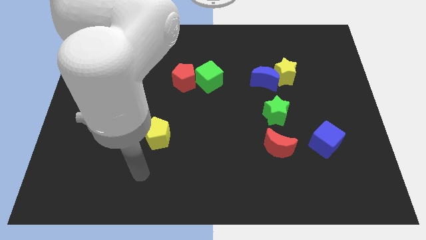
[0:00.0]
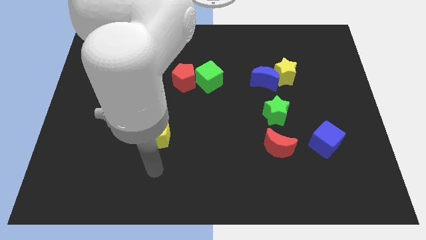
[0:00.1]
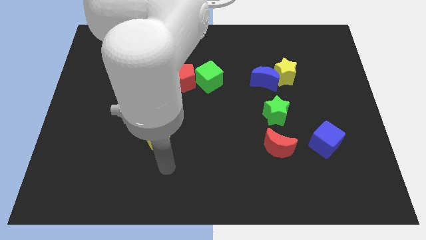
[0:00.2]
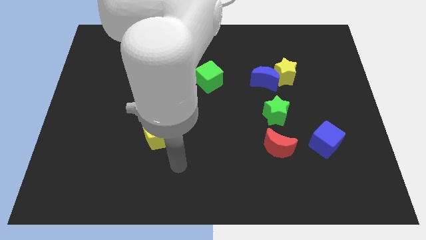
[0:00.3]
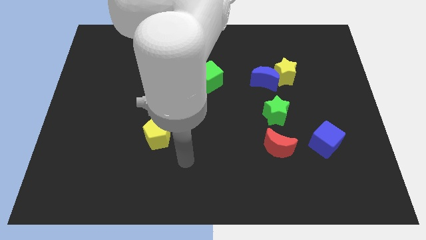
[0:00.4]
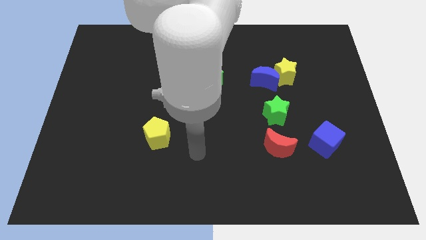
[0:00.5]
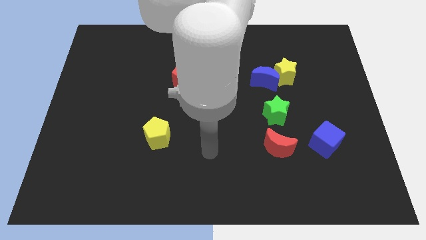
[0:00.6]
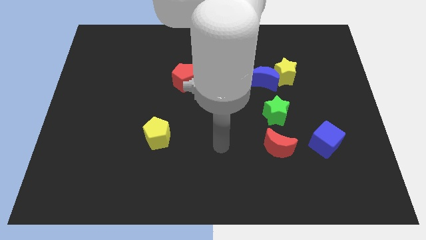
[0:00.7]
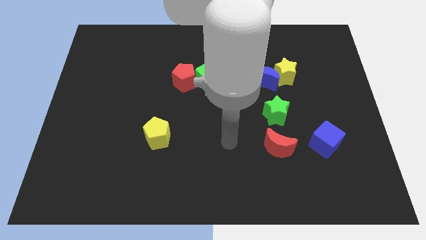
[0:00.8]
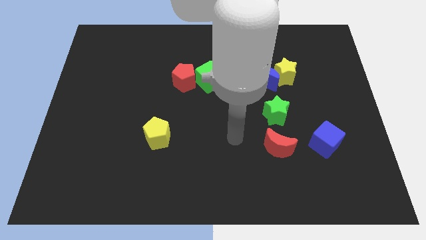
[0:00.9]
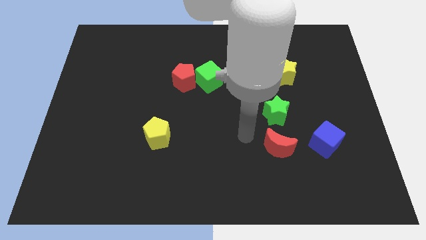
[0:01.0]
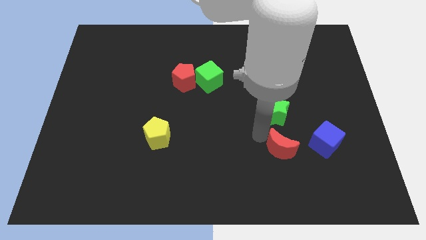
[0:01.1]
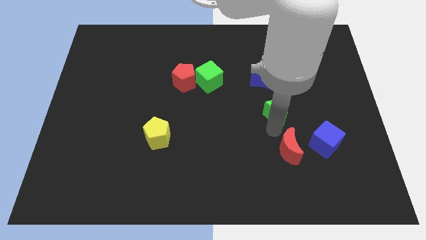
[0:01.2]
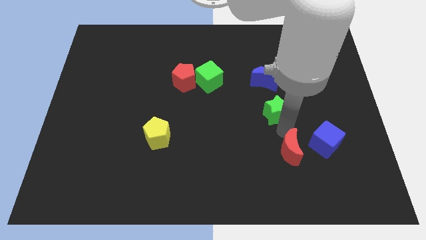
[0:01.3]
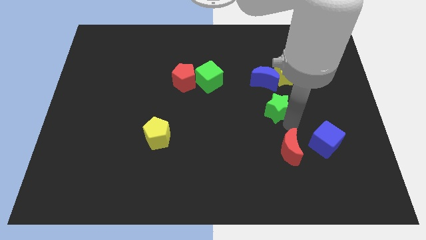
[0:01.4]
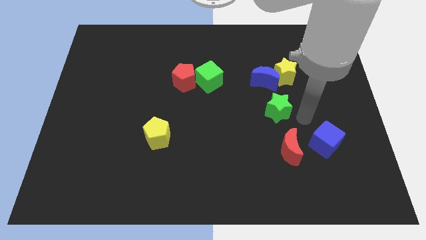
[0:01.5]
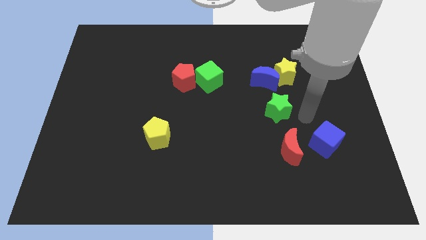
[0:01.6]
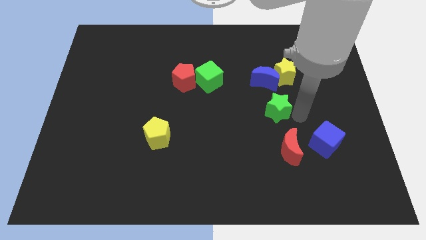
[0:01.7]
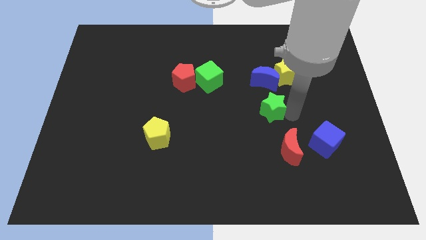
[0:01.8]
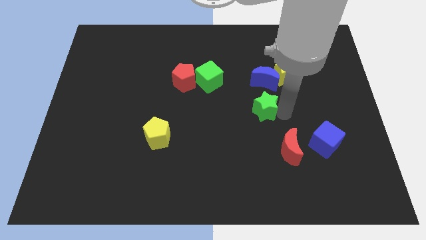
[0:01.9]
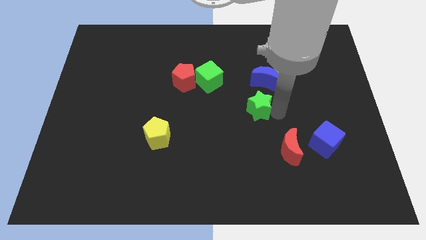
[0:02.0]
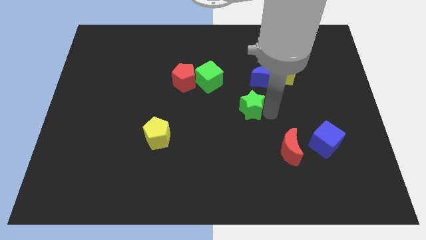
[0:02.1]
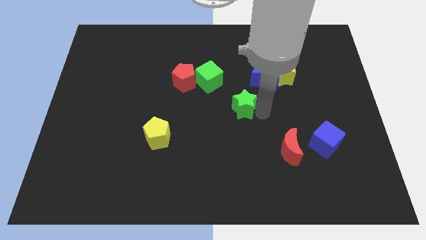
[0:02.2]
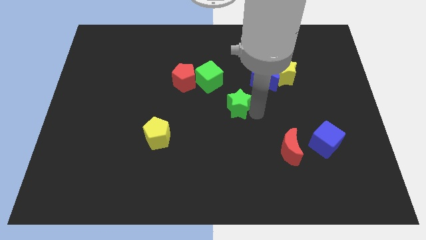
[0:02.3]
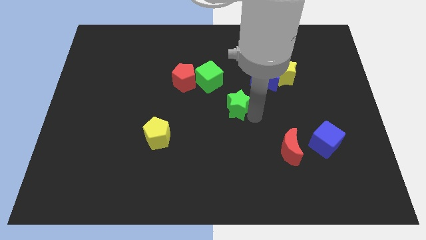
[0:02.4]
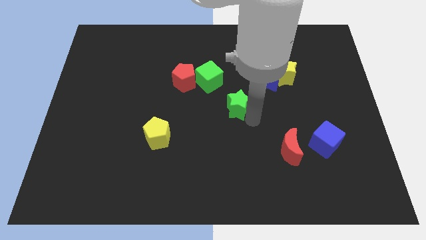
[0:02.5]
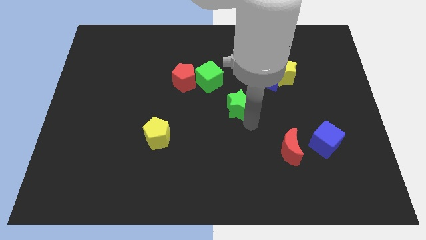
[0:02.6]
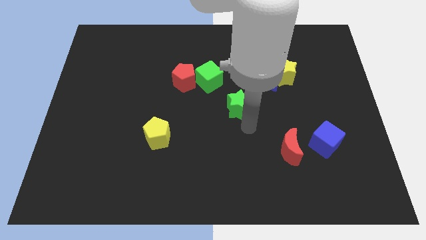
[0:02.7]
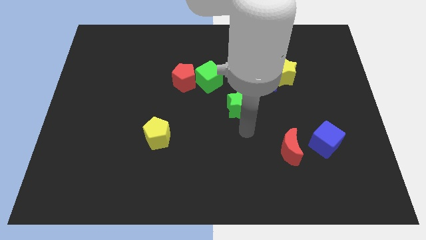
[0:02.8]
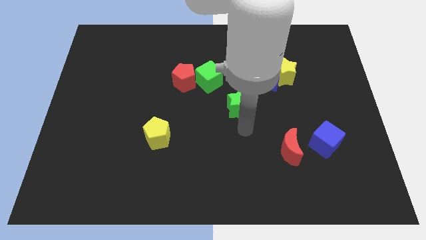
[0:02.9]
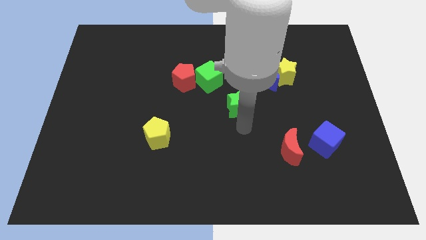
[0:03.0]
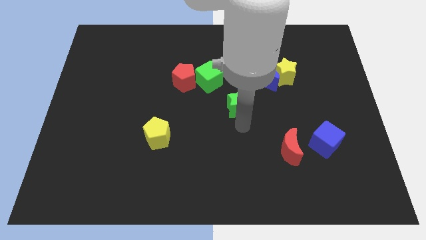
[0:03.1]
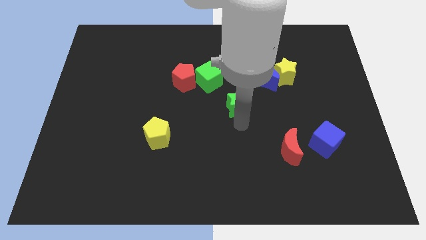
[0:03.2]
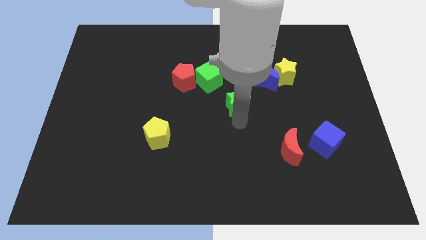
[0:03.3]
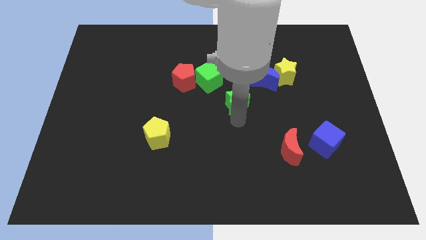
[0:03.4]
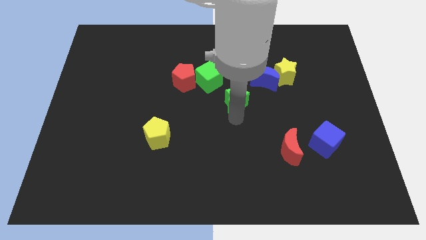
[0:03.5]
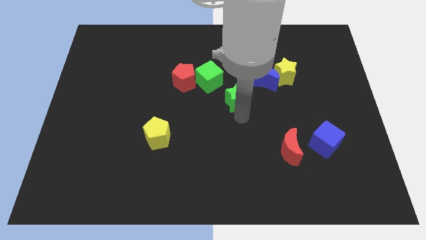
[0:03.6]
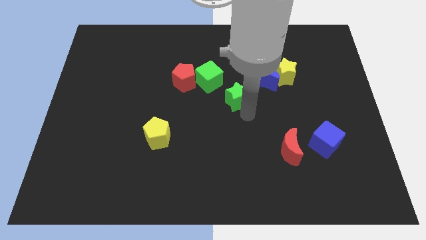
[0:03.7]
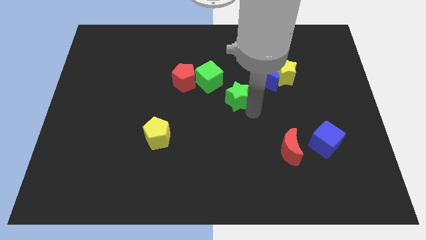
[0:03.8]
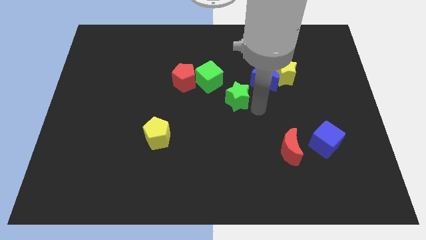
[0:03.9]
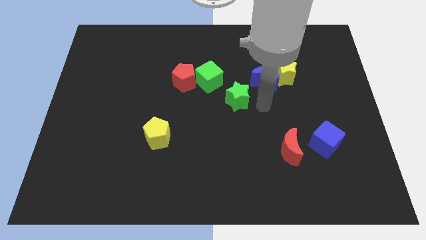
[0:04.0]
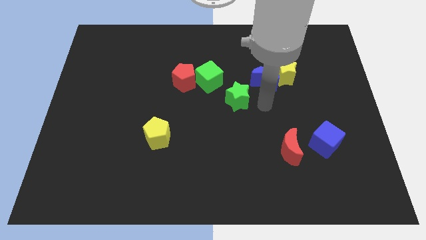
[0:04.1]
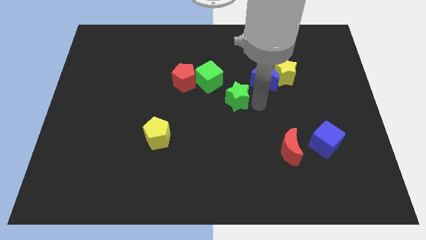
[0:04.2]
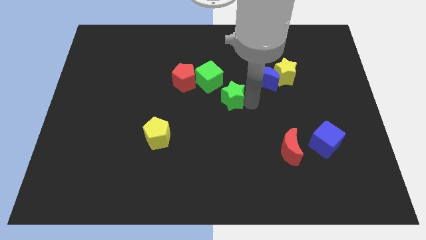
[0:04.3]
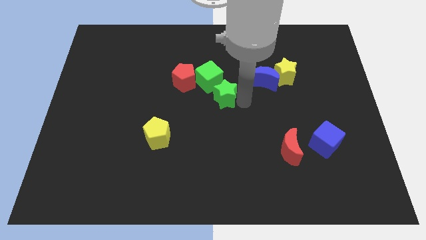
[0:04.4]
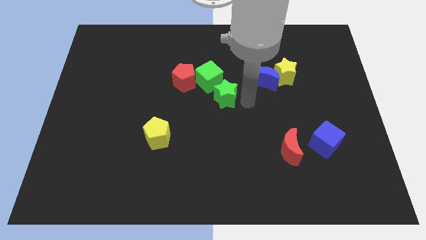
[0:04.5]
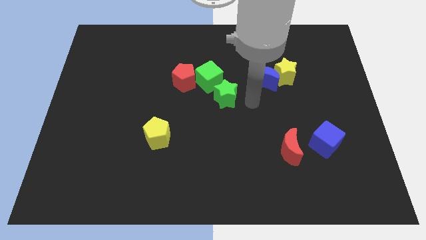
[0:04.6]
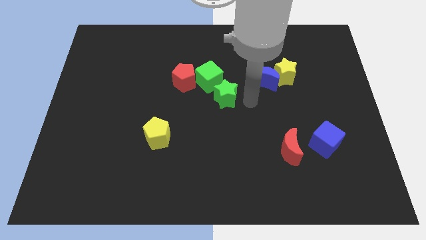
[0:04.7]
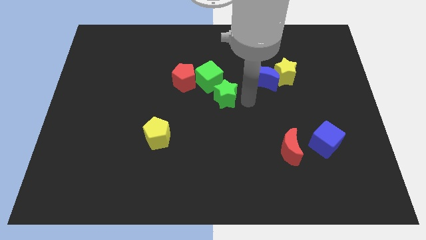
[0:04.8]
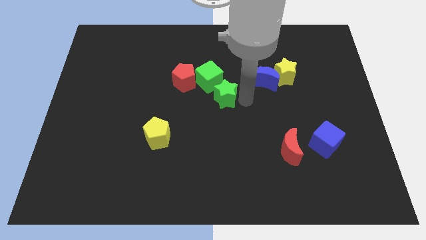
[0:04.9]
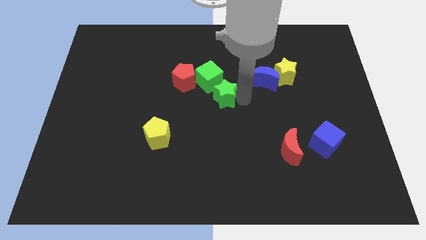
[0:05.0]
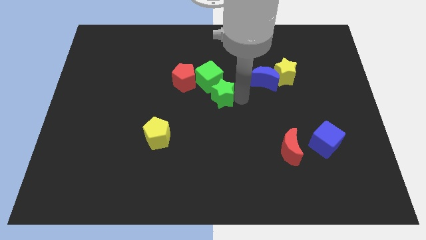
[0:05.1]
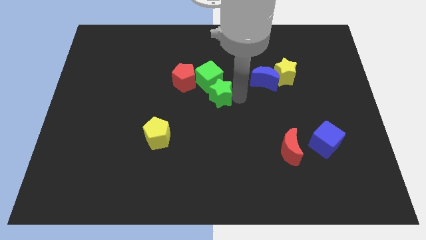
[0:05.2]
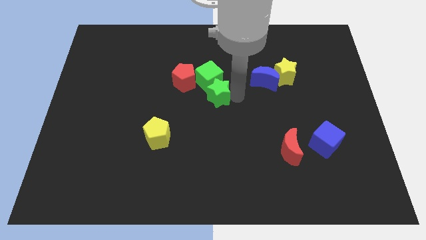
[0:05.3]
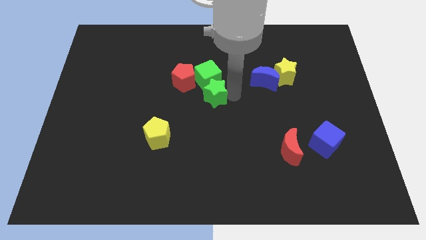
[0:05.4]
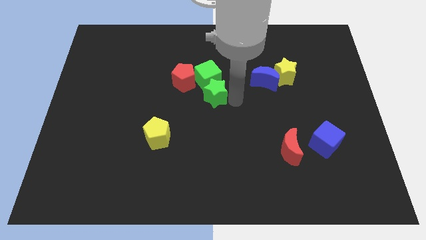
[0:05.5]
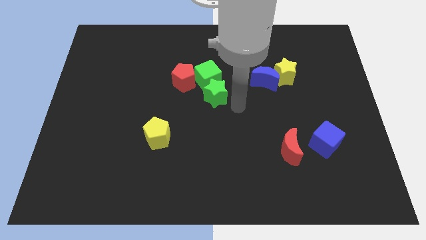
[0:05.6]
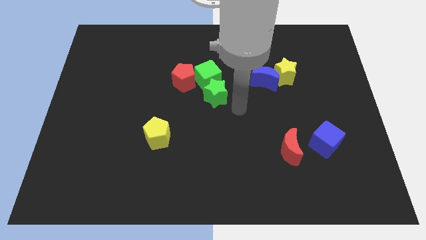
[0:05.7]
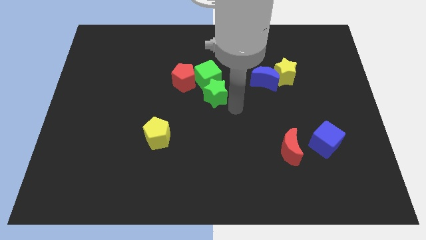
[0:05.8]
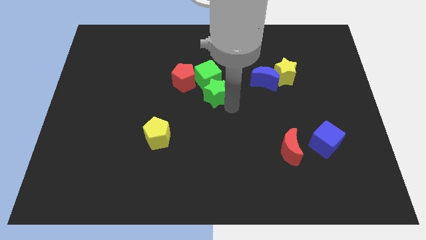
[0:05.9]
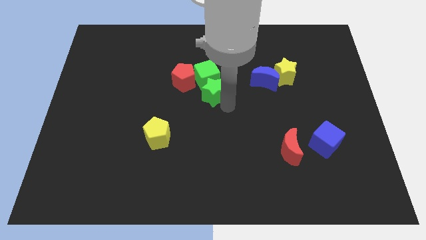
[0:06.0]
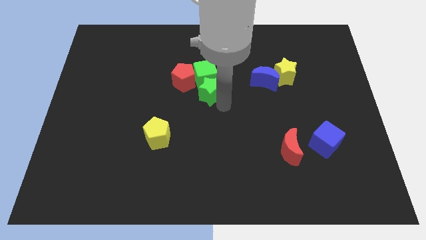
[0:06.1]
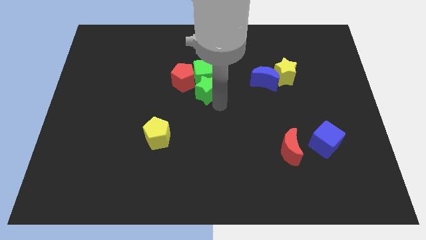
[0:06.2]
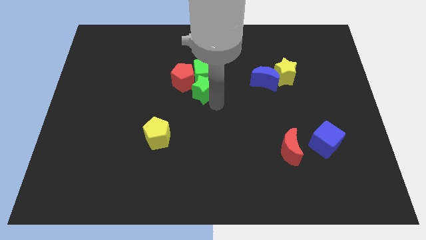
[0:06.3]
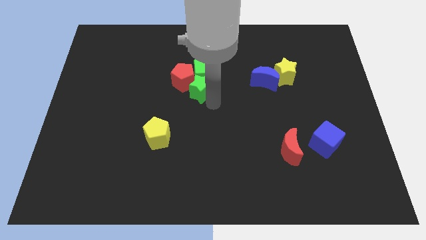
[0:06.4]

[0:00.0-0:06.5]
put the green star to the red pentagon
